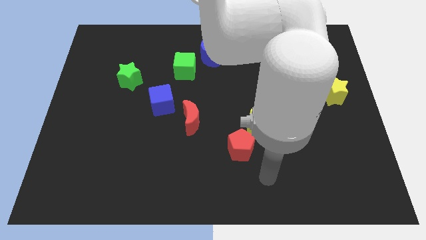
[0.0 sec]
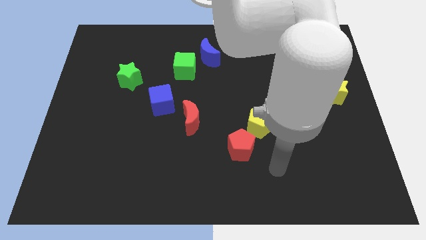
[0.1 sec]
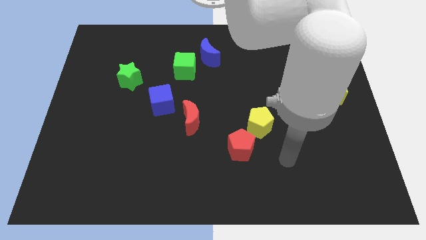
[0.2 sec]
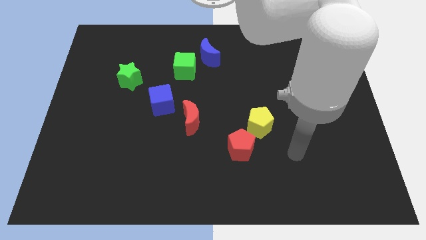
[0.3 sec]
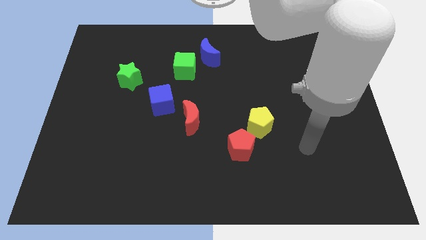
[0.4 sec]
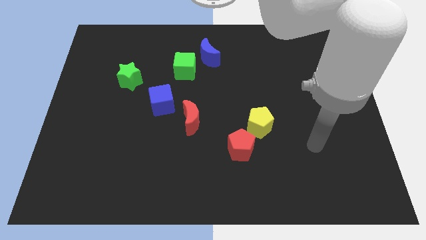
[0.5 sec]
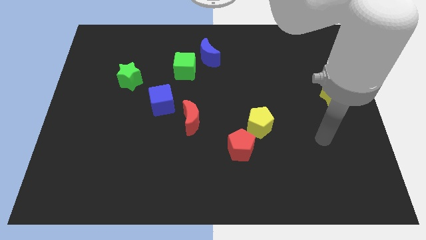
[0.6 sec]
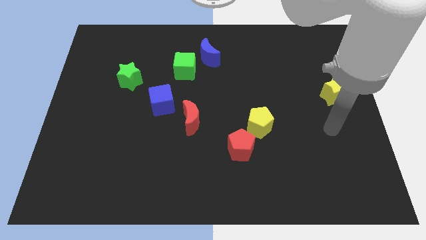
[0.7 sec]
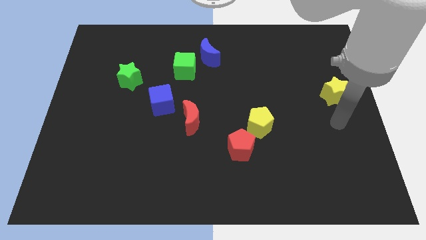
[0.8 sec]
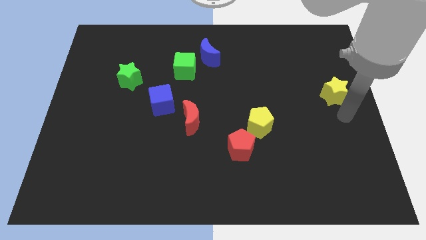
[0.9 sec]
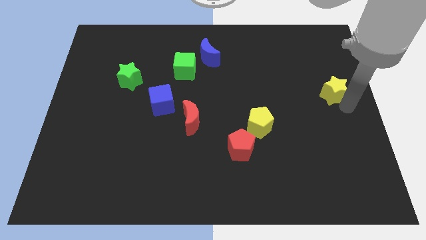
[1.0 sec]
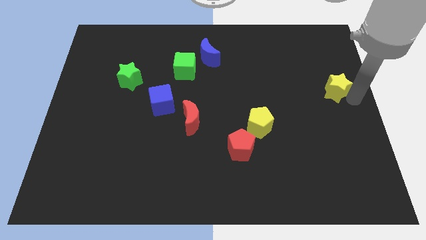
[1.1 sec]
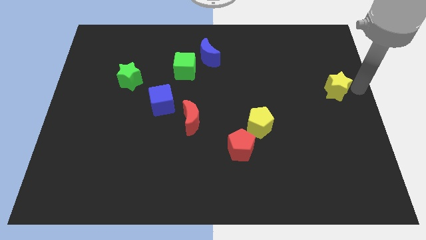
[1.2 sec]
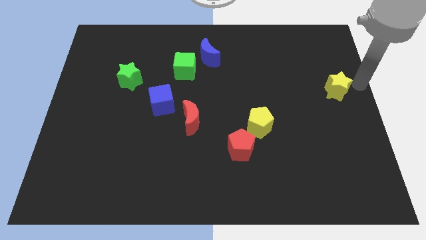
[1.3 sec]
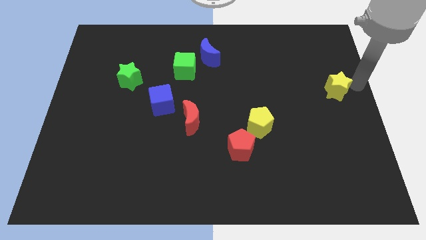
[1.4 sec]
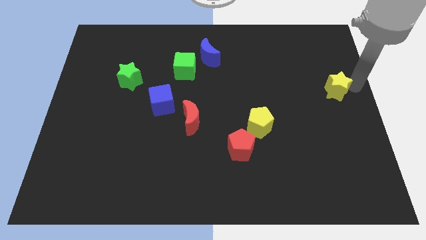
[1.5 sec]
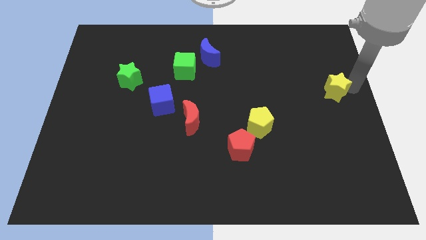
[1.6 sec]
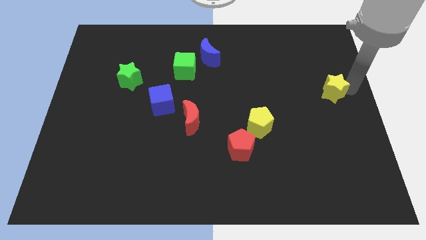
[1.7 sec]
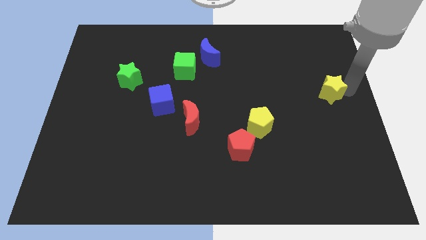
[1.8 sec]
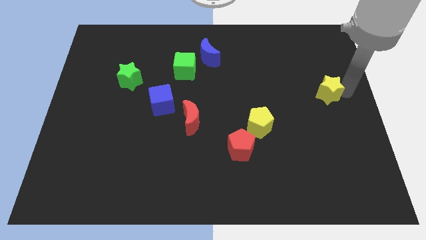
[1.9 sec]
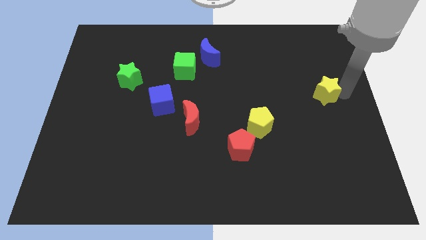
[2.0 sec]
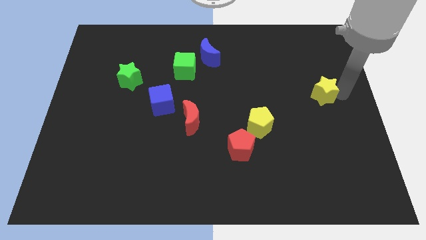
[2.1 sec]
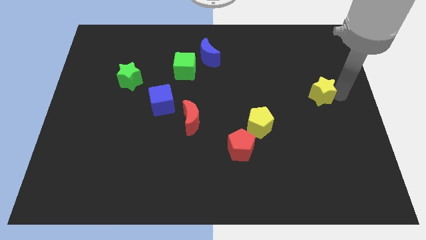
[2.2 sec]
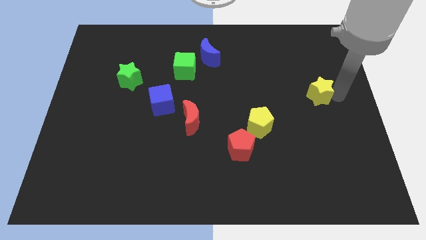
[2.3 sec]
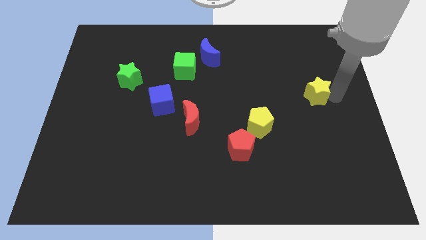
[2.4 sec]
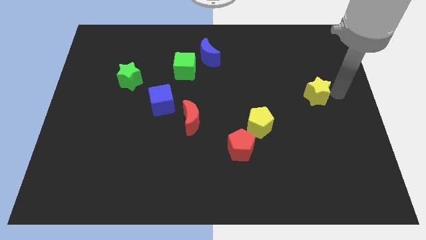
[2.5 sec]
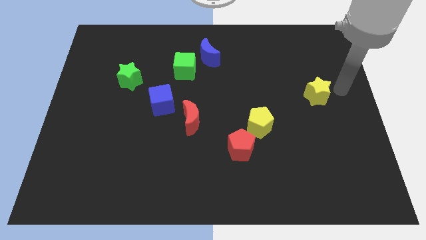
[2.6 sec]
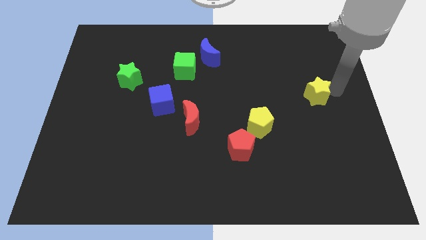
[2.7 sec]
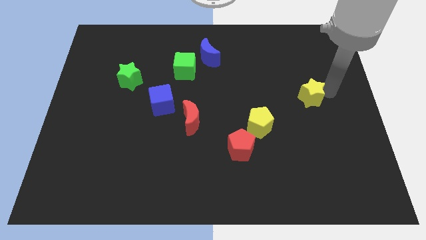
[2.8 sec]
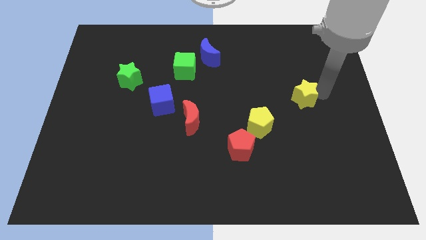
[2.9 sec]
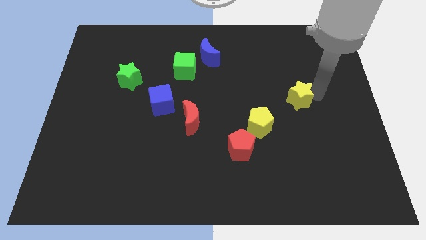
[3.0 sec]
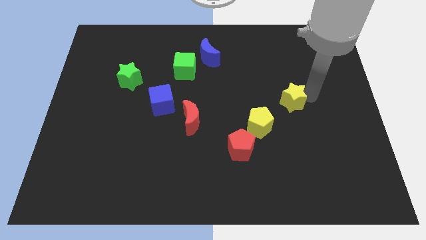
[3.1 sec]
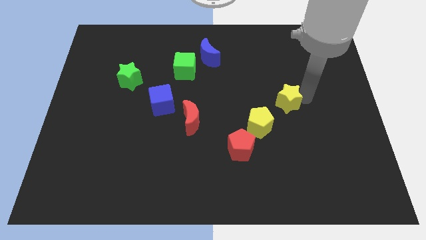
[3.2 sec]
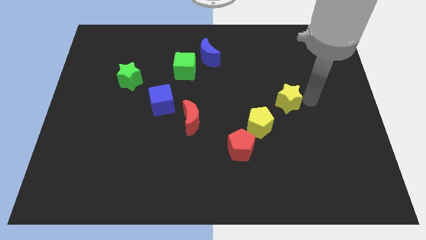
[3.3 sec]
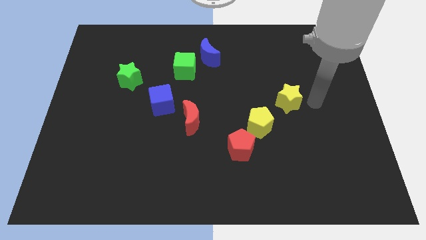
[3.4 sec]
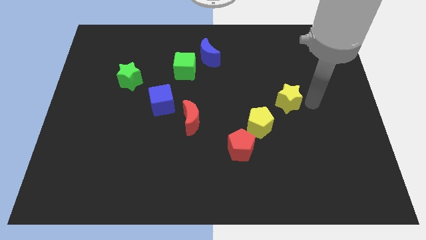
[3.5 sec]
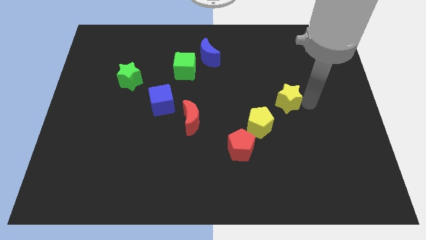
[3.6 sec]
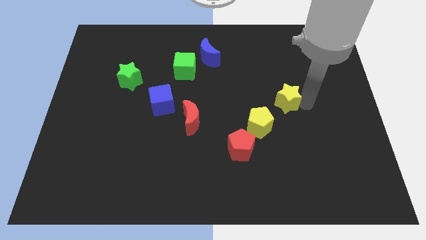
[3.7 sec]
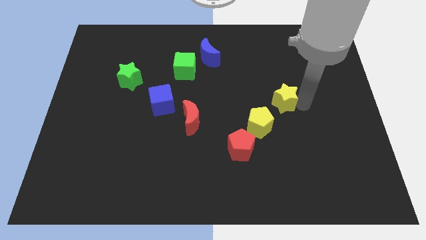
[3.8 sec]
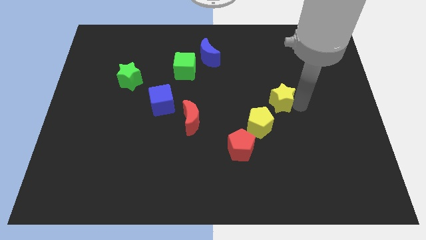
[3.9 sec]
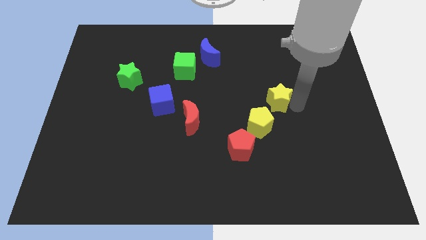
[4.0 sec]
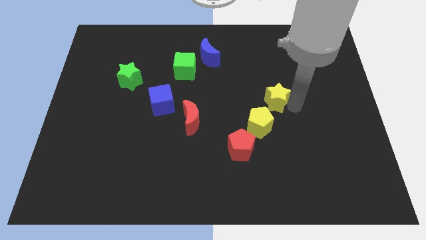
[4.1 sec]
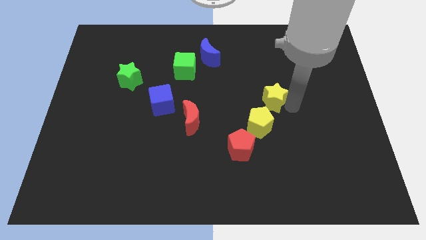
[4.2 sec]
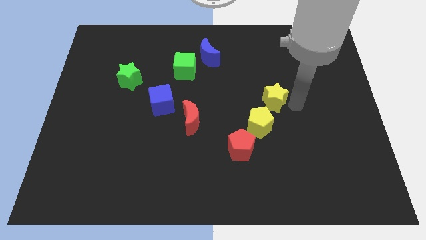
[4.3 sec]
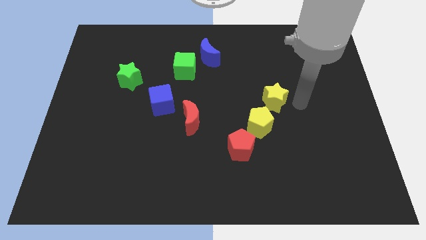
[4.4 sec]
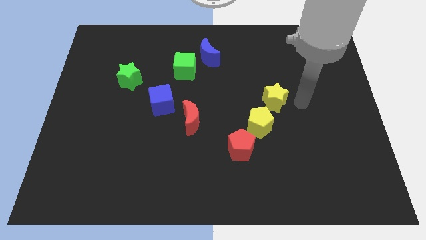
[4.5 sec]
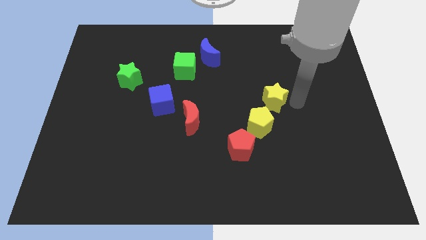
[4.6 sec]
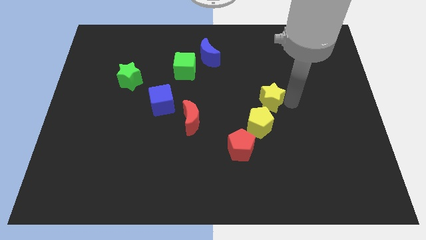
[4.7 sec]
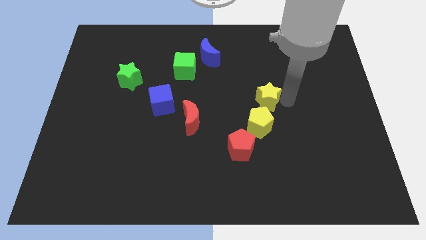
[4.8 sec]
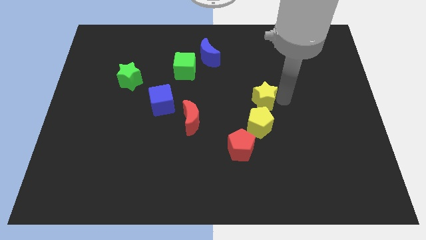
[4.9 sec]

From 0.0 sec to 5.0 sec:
slide the yellow star to the middle

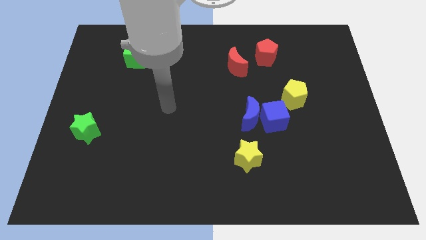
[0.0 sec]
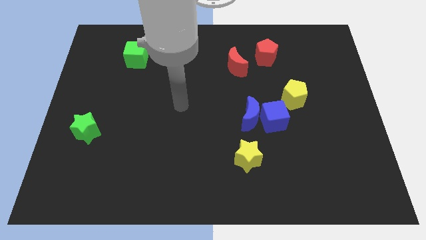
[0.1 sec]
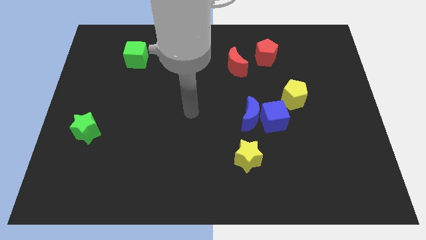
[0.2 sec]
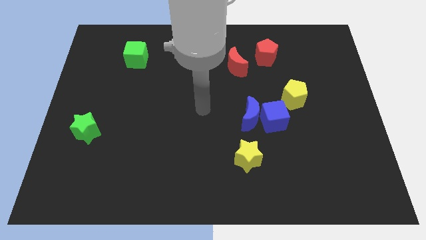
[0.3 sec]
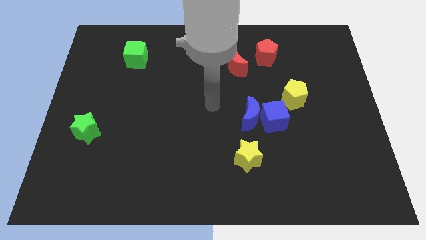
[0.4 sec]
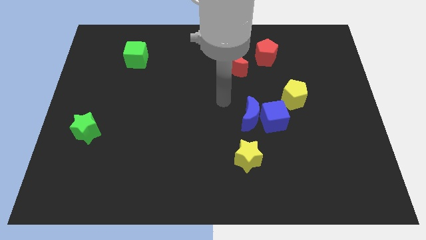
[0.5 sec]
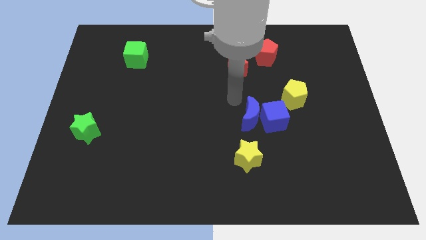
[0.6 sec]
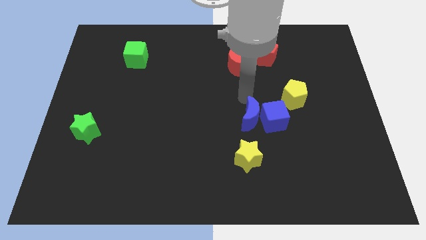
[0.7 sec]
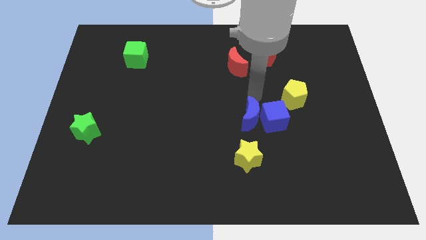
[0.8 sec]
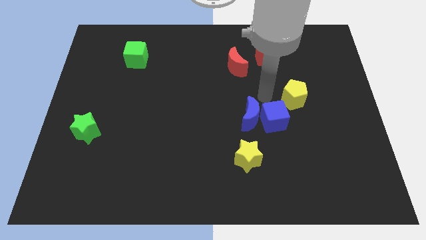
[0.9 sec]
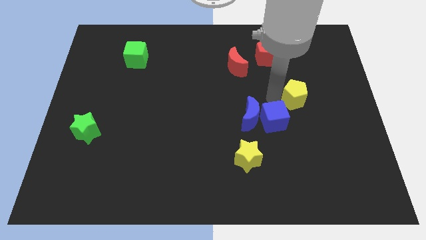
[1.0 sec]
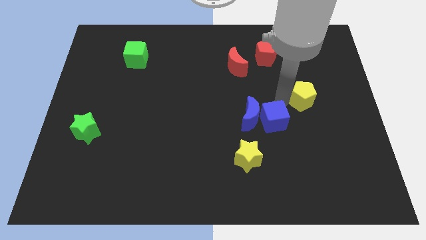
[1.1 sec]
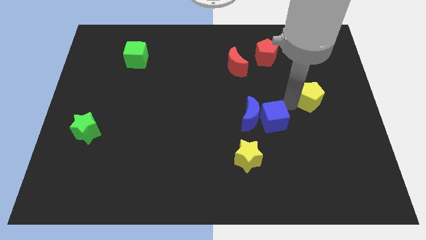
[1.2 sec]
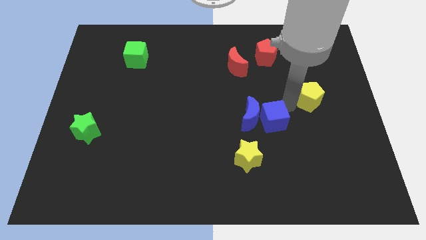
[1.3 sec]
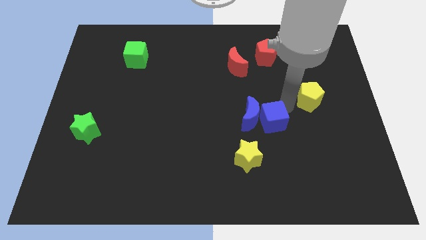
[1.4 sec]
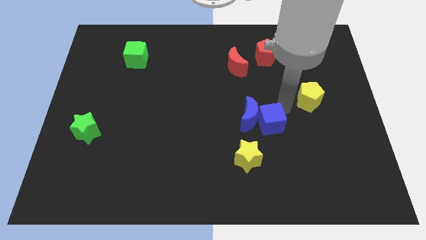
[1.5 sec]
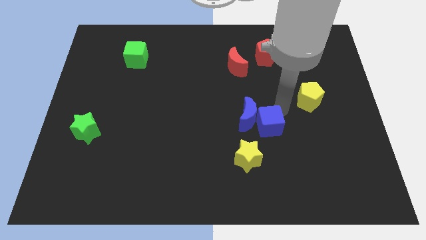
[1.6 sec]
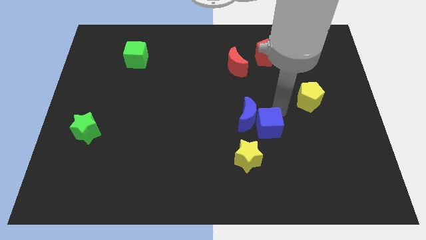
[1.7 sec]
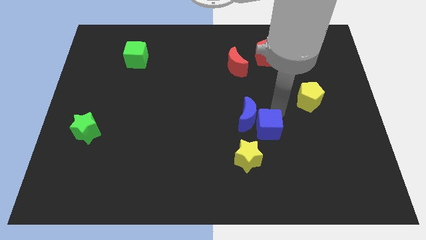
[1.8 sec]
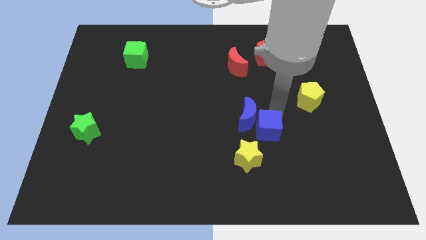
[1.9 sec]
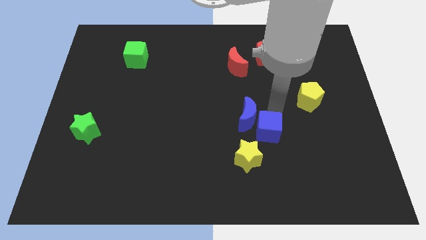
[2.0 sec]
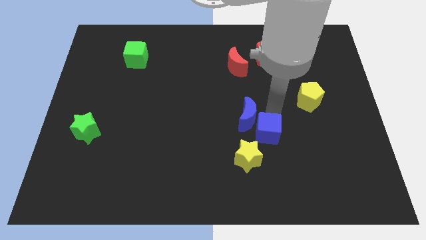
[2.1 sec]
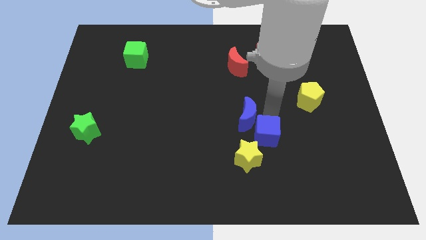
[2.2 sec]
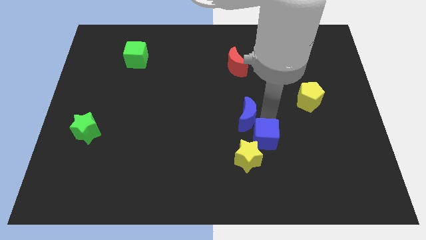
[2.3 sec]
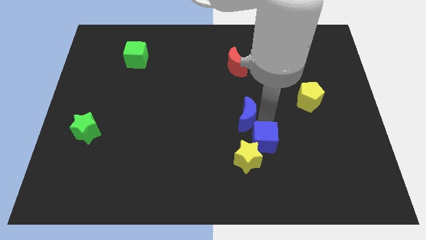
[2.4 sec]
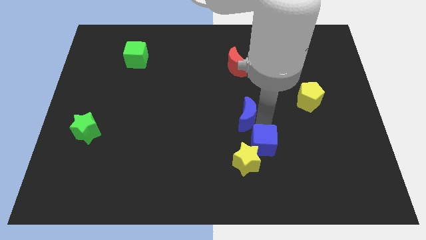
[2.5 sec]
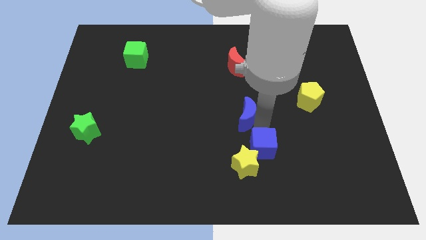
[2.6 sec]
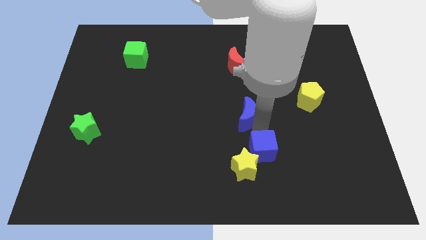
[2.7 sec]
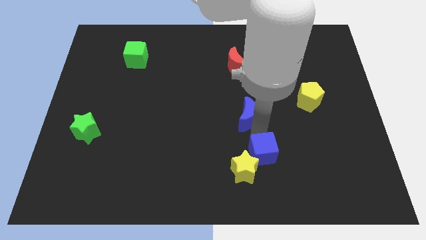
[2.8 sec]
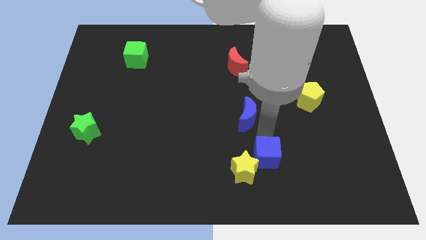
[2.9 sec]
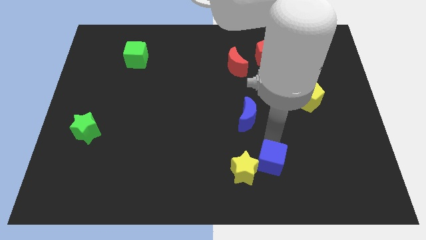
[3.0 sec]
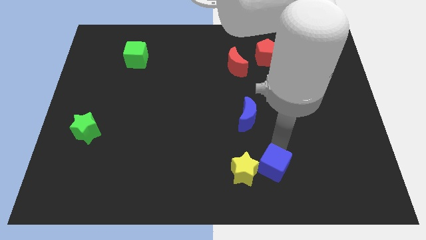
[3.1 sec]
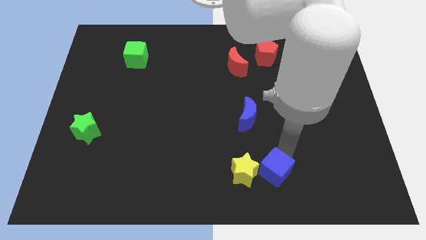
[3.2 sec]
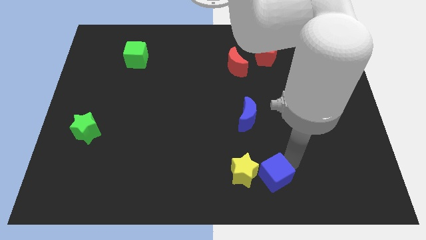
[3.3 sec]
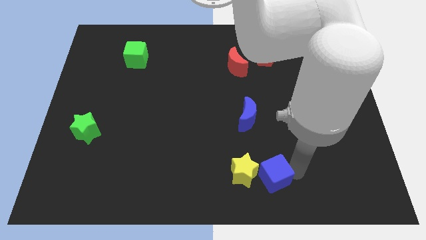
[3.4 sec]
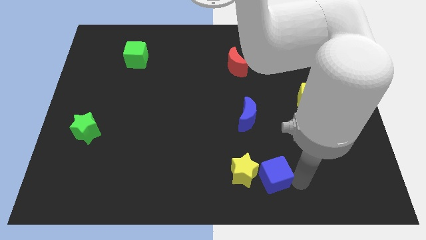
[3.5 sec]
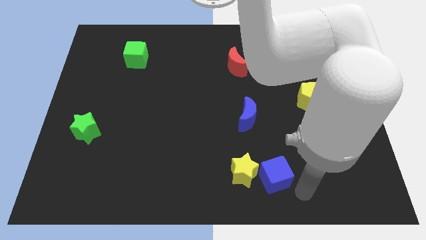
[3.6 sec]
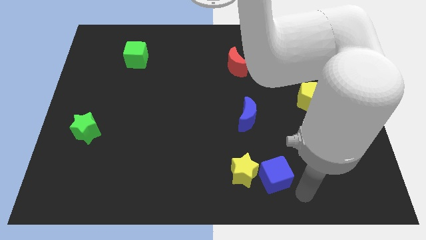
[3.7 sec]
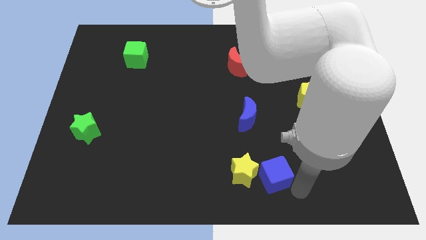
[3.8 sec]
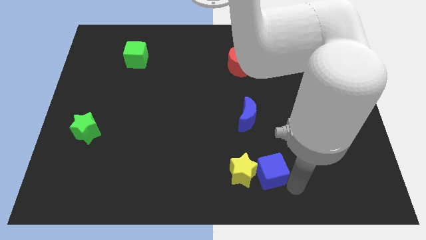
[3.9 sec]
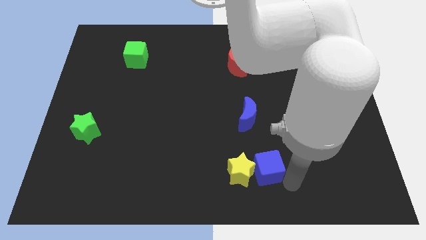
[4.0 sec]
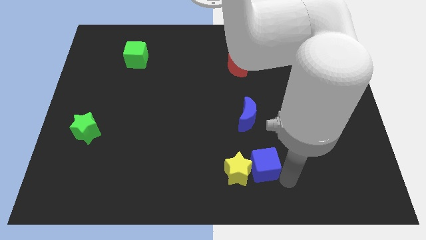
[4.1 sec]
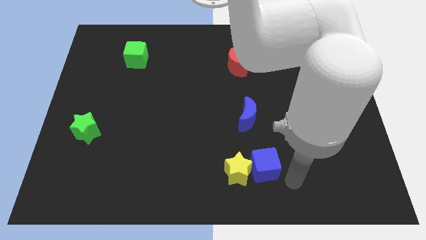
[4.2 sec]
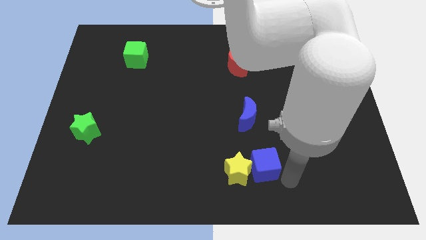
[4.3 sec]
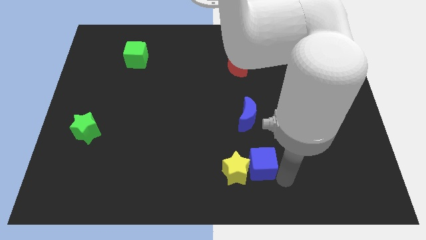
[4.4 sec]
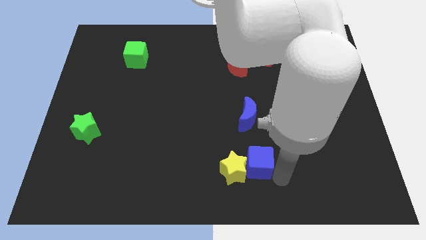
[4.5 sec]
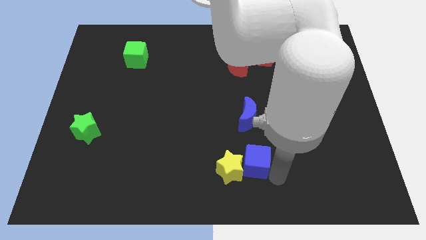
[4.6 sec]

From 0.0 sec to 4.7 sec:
push the blue cube to the bottom side
